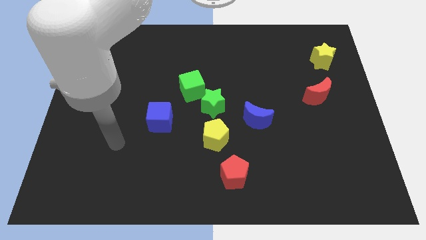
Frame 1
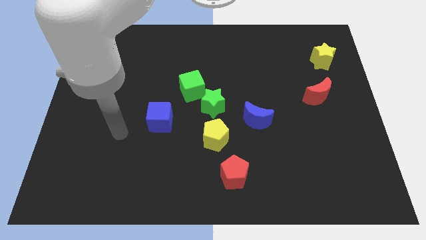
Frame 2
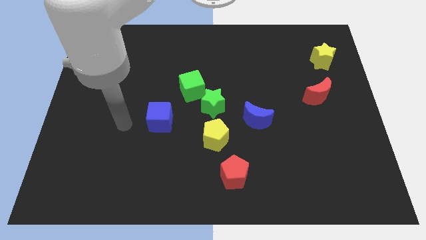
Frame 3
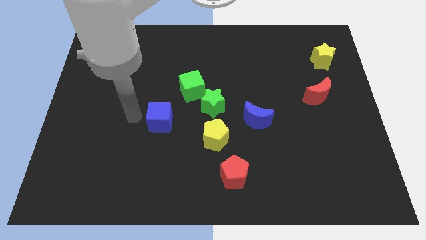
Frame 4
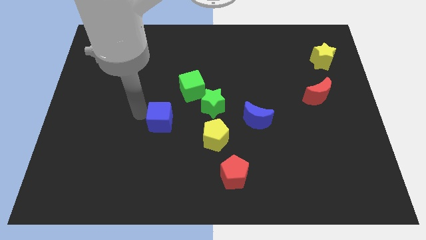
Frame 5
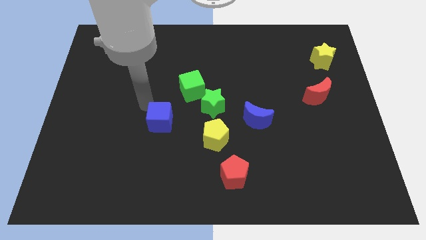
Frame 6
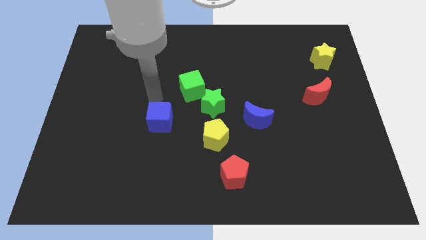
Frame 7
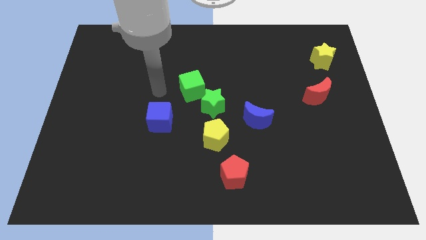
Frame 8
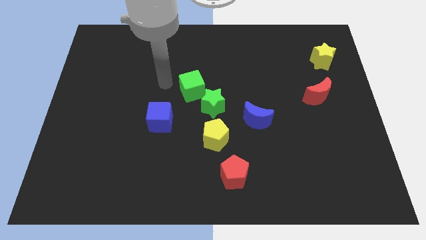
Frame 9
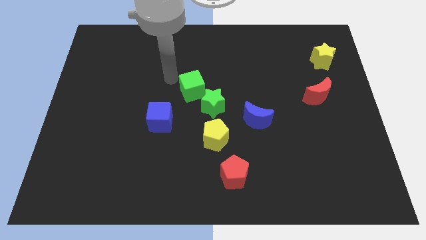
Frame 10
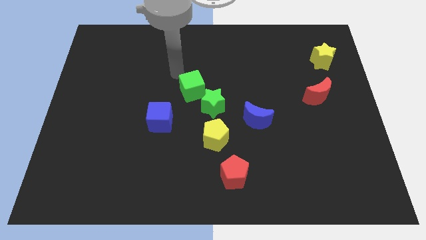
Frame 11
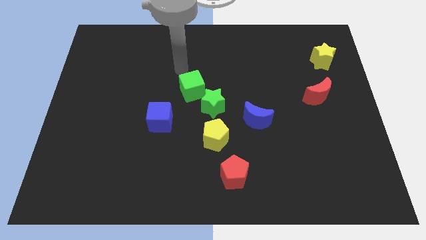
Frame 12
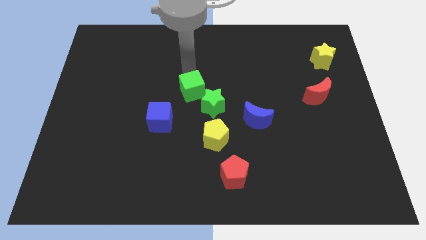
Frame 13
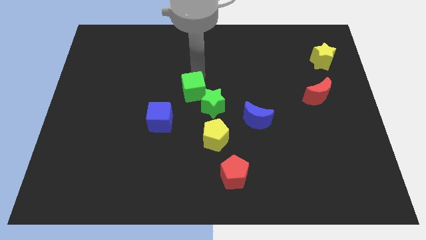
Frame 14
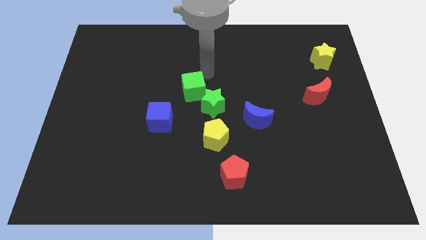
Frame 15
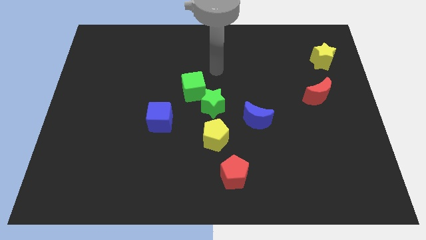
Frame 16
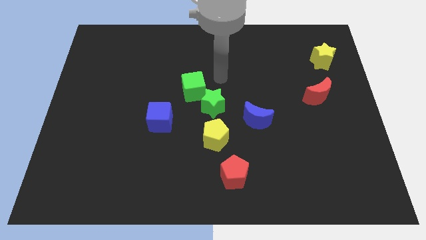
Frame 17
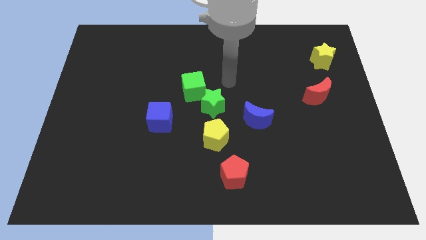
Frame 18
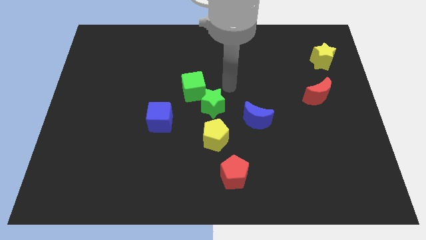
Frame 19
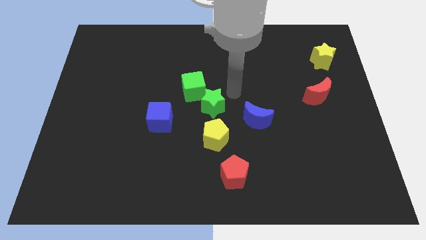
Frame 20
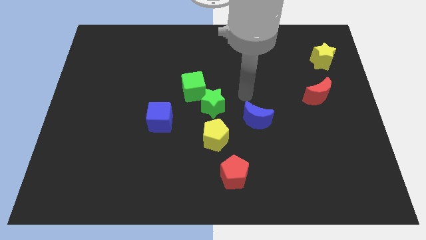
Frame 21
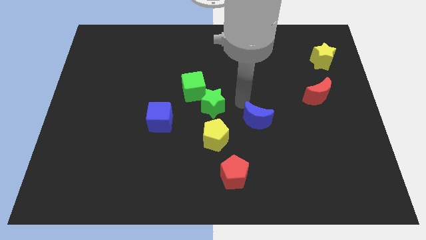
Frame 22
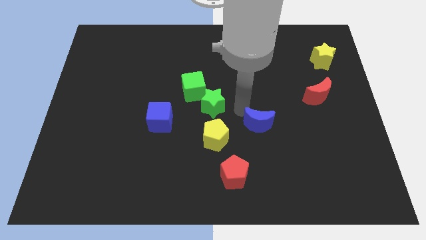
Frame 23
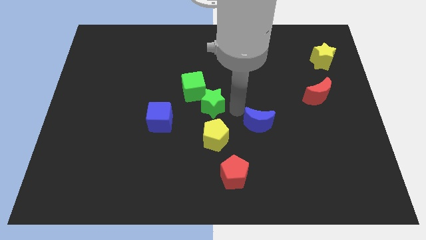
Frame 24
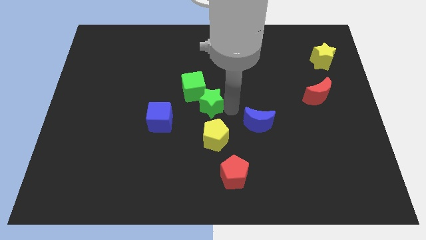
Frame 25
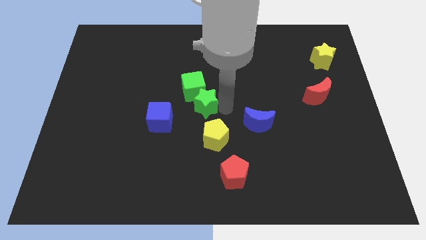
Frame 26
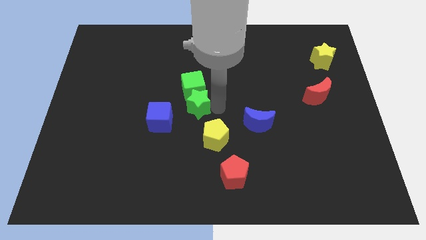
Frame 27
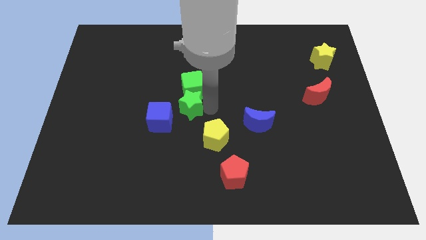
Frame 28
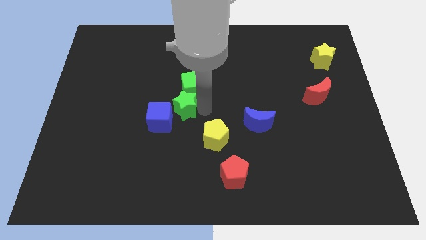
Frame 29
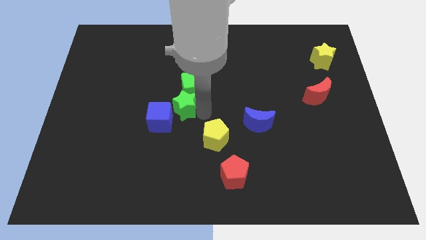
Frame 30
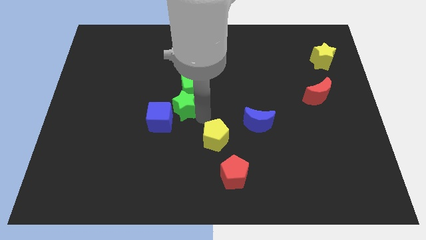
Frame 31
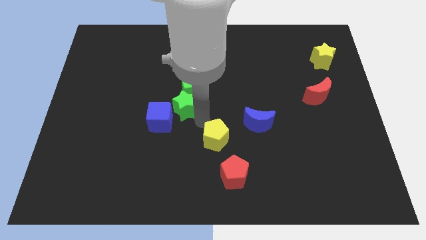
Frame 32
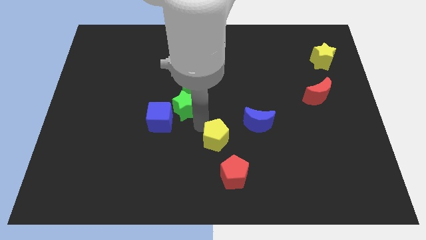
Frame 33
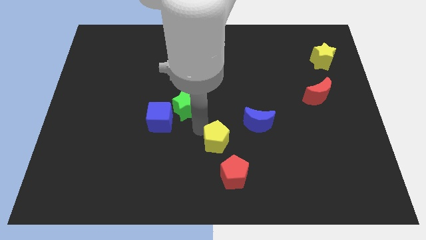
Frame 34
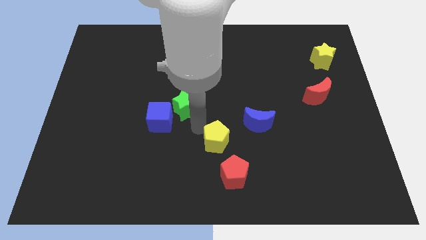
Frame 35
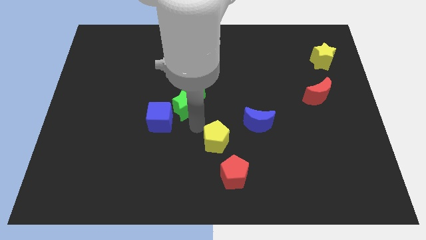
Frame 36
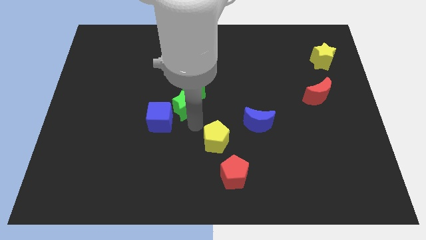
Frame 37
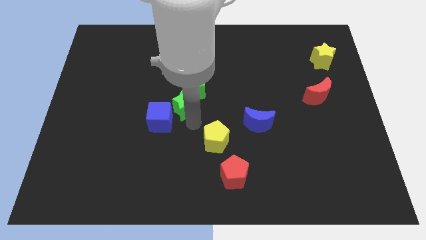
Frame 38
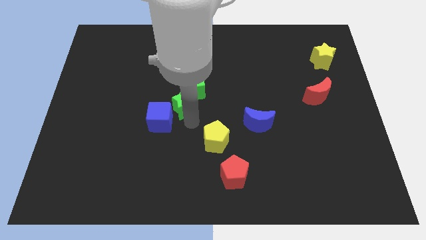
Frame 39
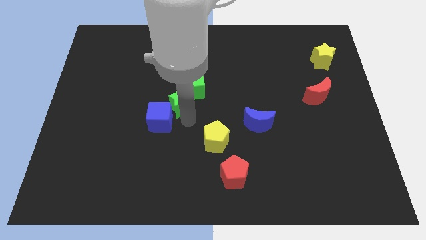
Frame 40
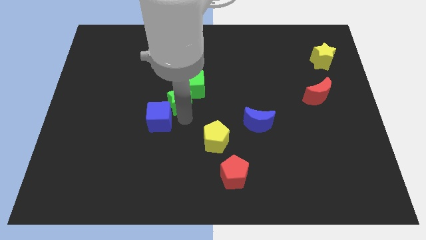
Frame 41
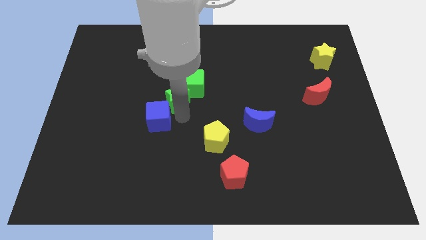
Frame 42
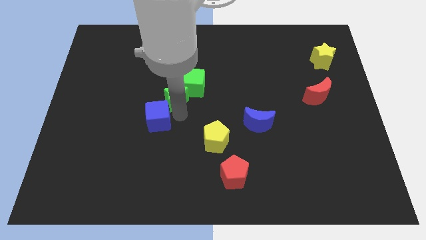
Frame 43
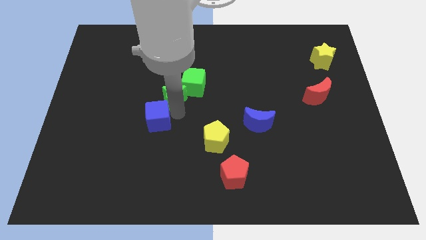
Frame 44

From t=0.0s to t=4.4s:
slightly slide the green star upwards and to the left

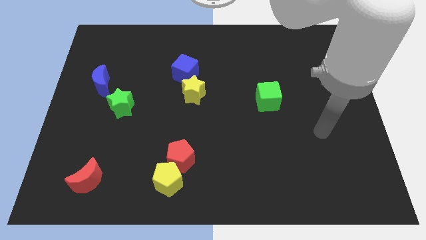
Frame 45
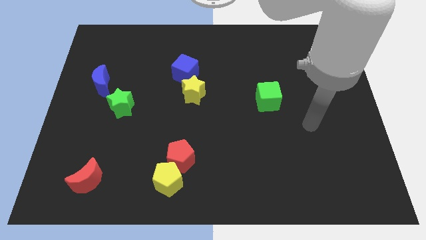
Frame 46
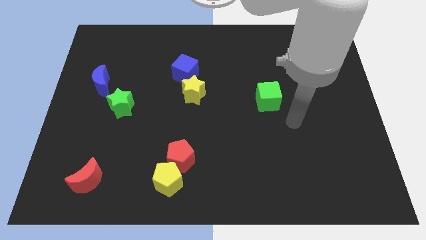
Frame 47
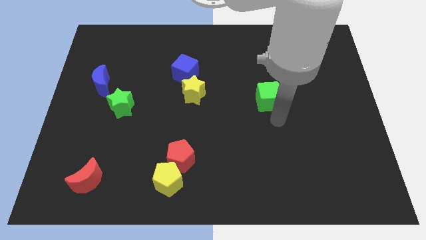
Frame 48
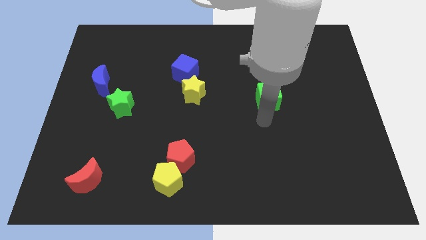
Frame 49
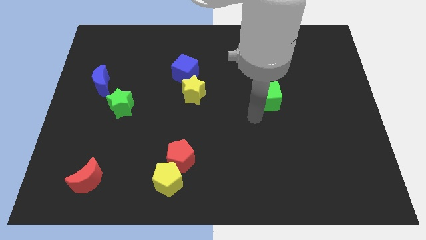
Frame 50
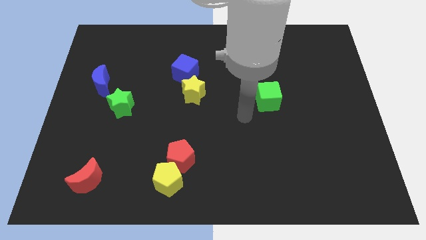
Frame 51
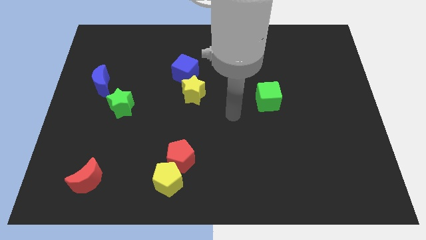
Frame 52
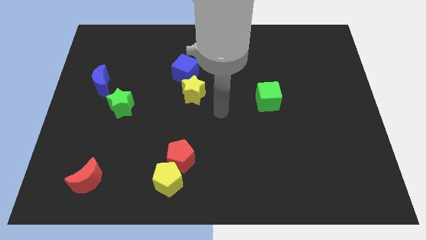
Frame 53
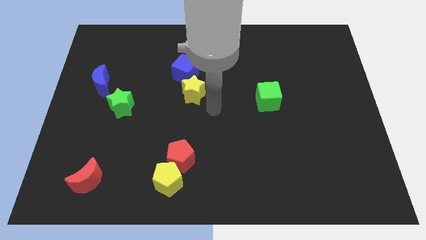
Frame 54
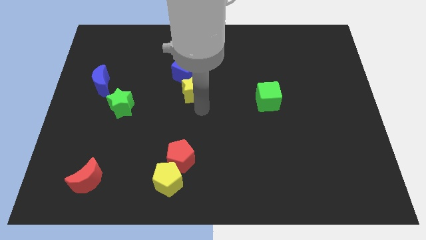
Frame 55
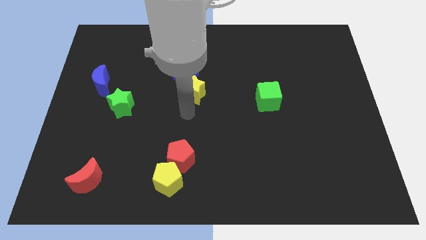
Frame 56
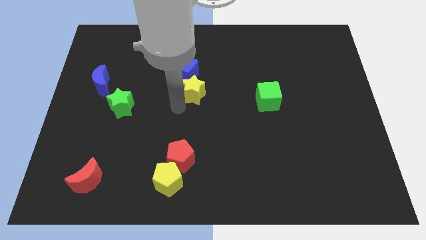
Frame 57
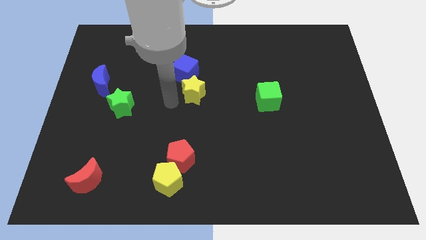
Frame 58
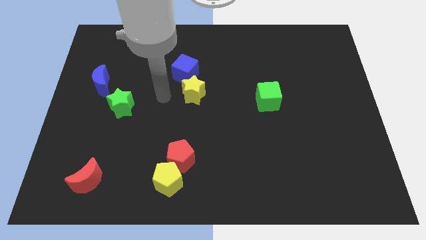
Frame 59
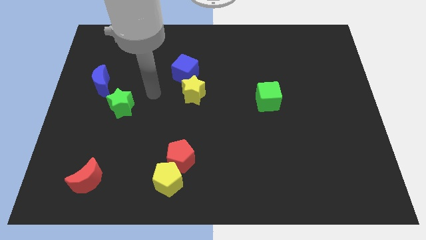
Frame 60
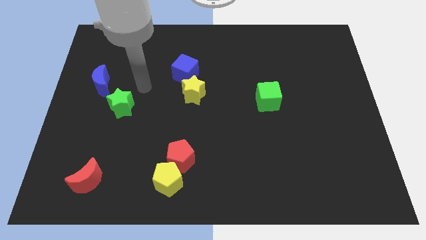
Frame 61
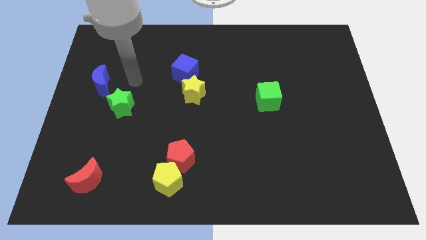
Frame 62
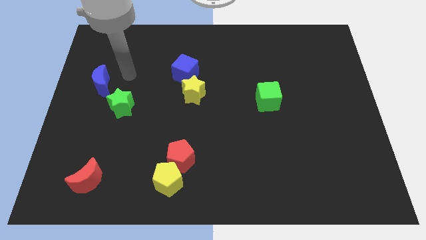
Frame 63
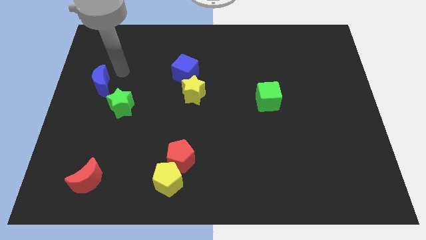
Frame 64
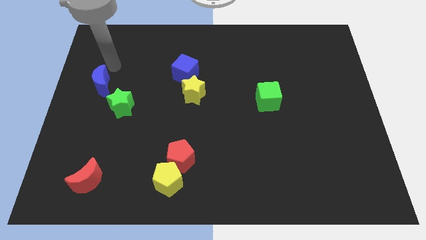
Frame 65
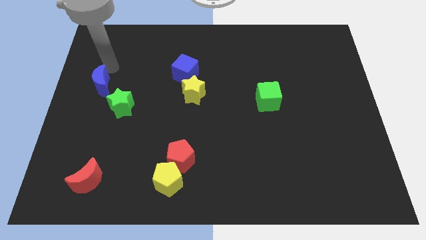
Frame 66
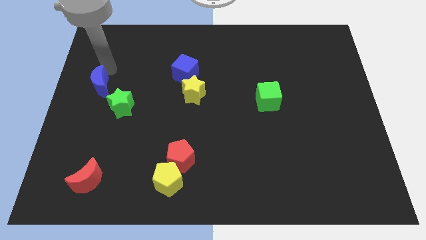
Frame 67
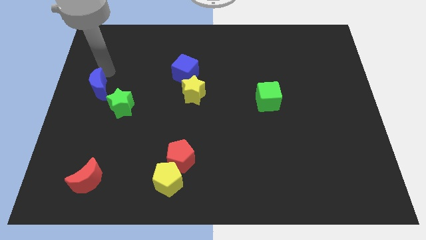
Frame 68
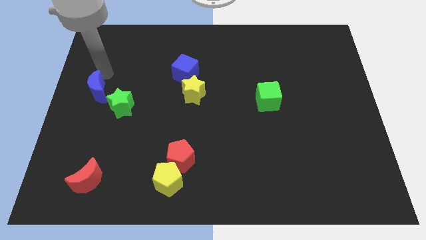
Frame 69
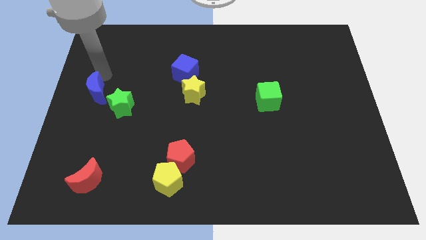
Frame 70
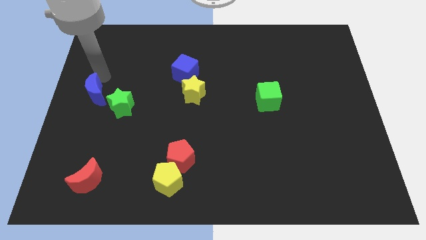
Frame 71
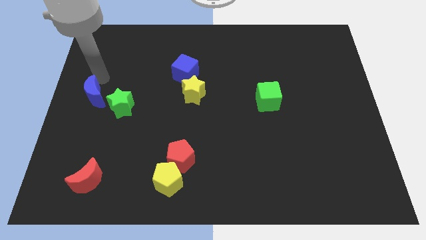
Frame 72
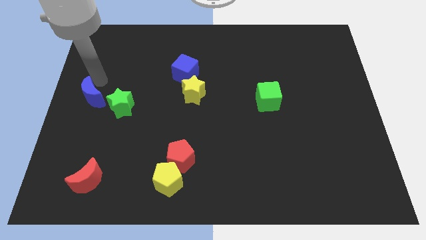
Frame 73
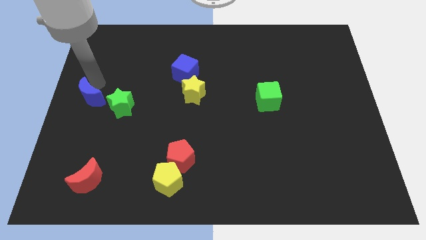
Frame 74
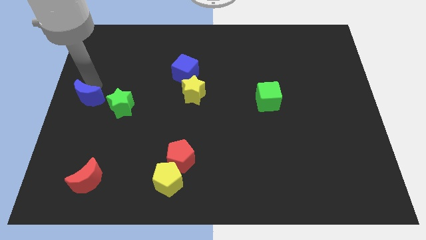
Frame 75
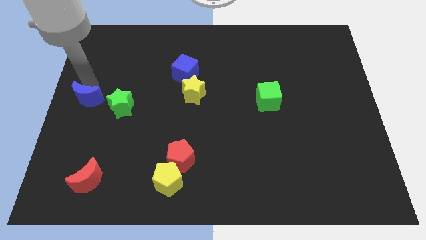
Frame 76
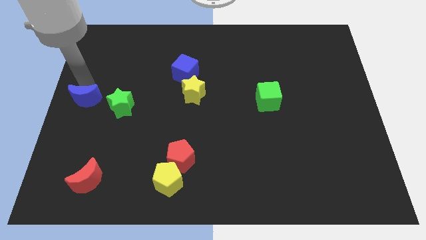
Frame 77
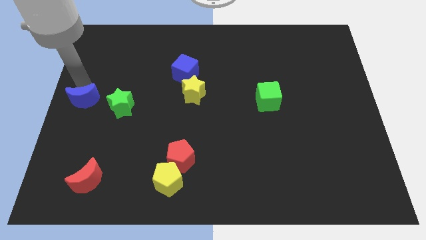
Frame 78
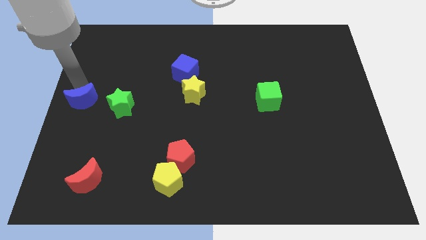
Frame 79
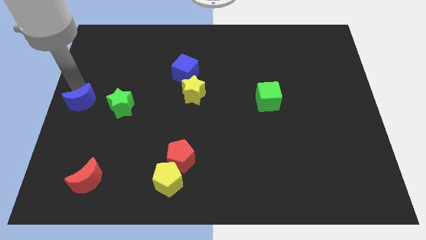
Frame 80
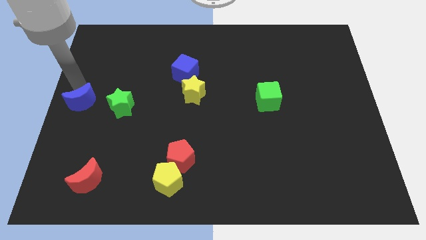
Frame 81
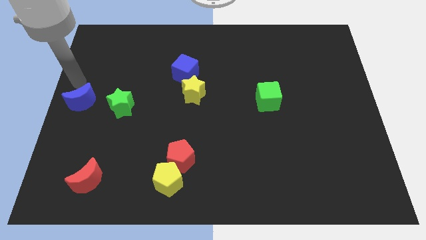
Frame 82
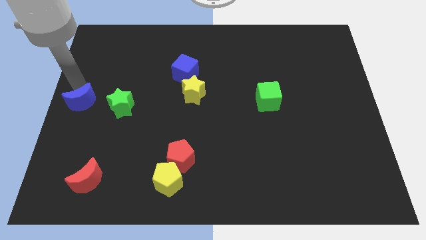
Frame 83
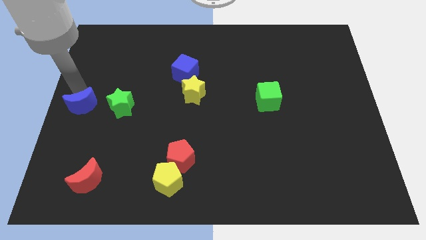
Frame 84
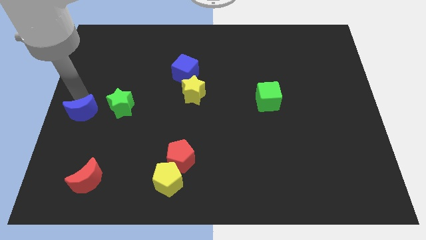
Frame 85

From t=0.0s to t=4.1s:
slightly slide the blue moon downwards
